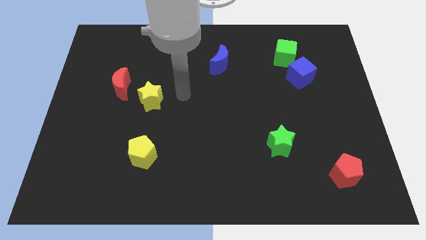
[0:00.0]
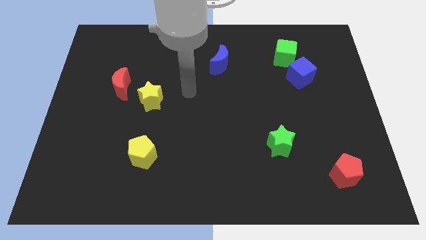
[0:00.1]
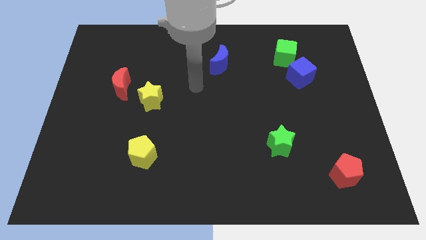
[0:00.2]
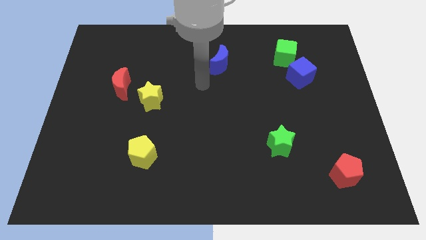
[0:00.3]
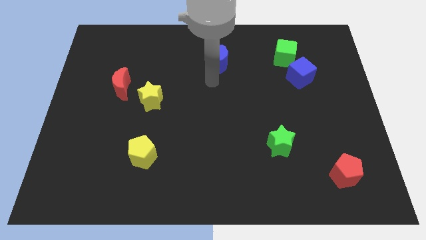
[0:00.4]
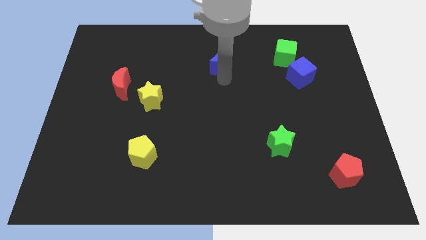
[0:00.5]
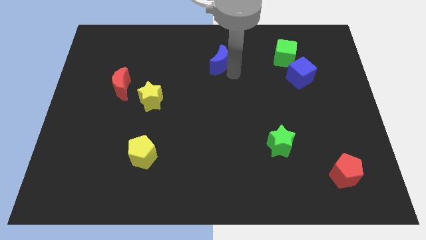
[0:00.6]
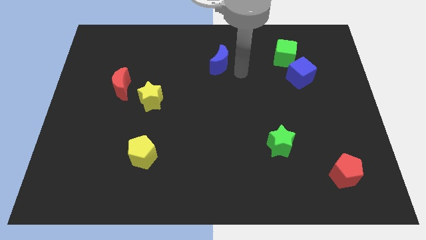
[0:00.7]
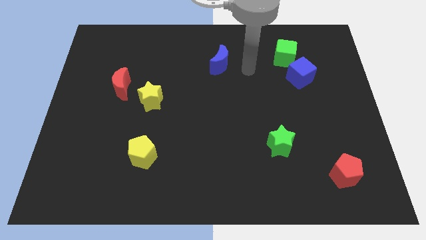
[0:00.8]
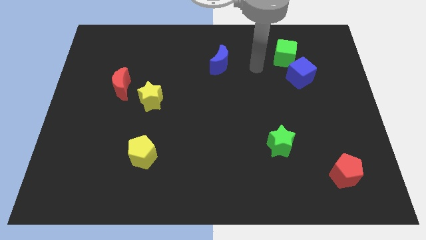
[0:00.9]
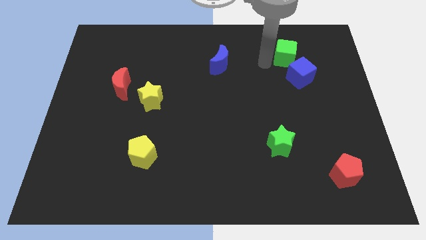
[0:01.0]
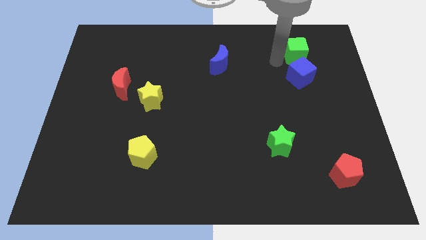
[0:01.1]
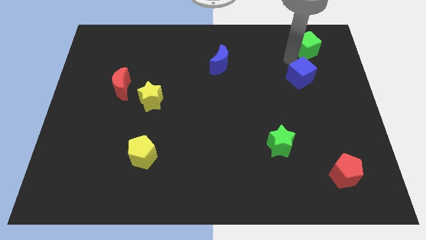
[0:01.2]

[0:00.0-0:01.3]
separate the blue cube from the green cube

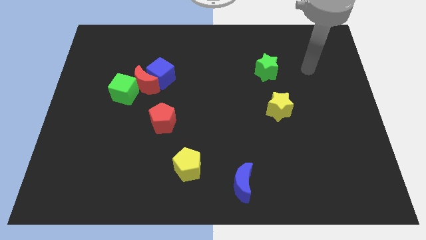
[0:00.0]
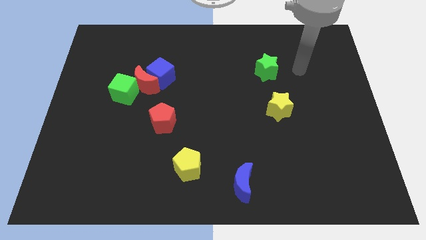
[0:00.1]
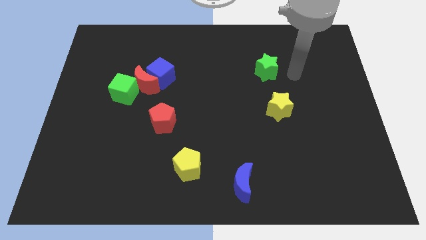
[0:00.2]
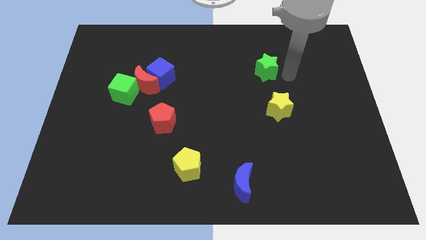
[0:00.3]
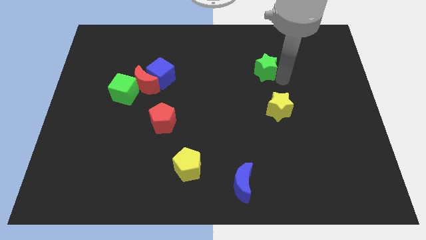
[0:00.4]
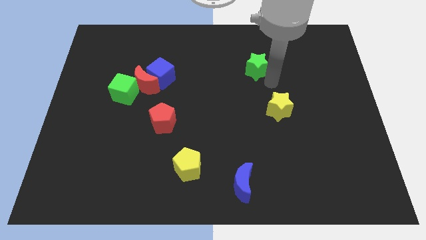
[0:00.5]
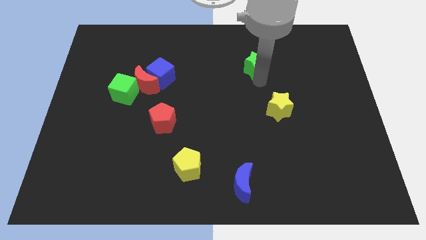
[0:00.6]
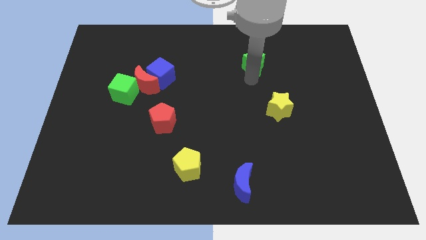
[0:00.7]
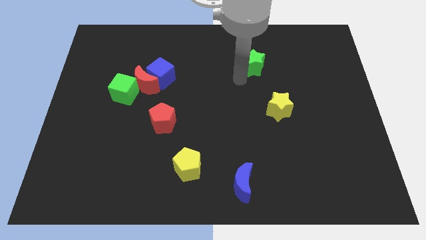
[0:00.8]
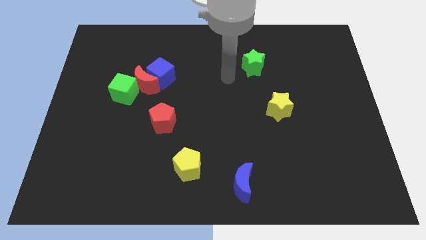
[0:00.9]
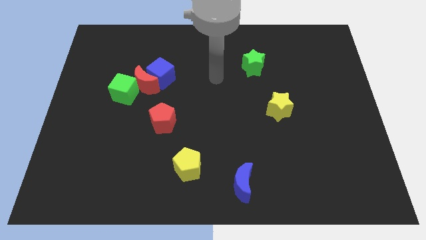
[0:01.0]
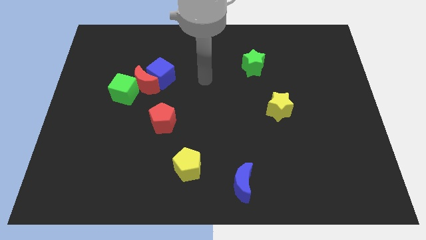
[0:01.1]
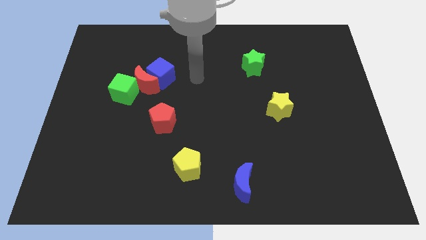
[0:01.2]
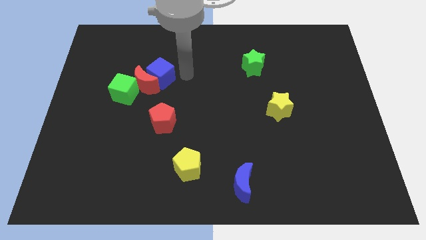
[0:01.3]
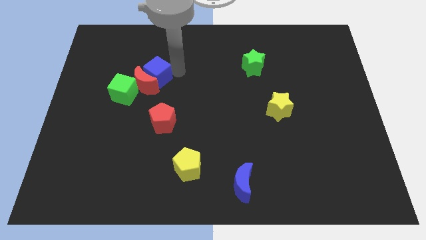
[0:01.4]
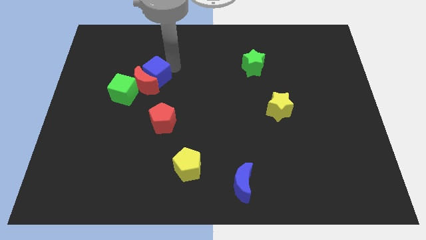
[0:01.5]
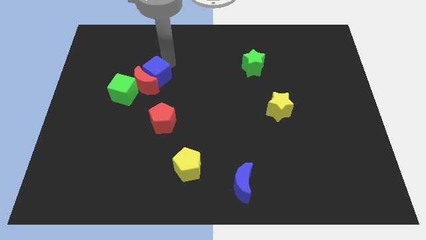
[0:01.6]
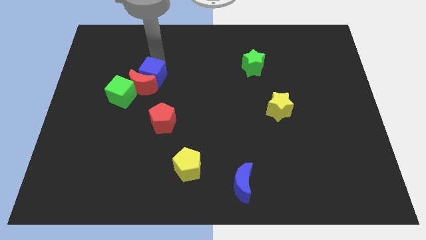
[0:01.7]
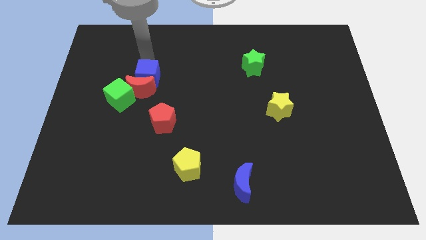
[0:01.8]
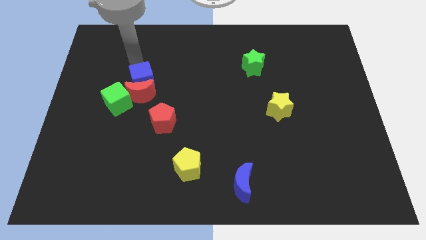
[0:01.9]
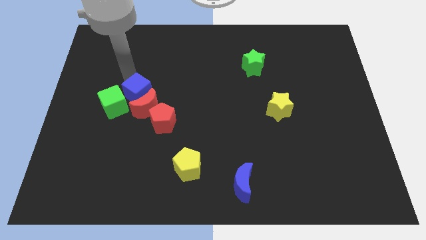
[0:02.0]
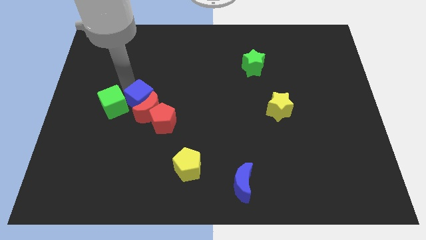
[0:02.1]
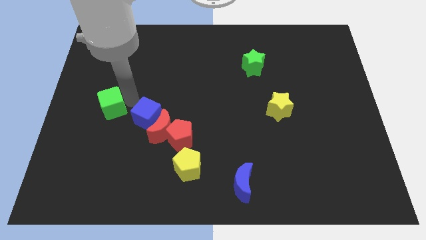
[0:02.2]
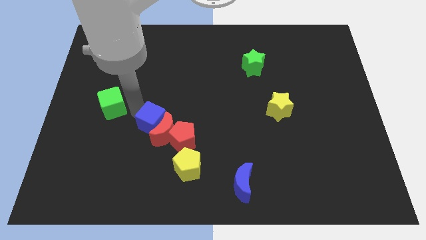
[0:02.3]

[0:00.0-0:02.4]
pull the red moon apart from the blue cube and green cube

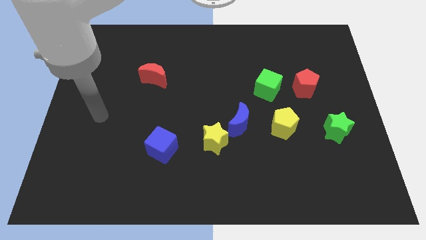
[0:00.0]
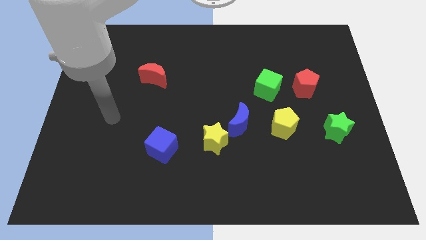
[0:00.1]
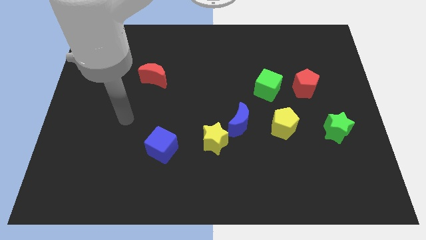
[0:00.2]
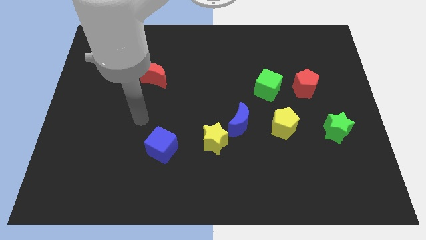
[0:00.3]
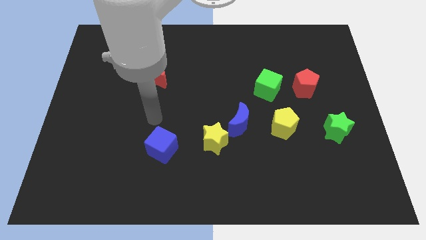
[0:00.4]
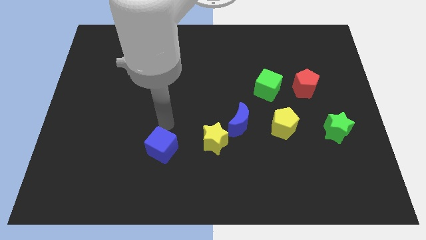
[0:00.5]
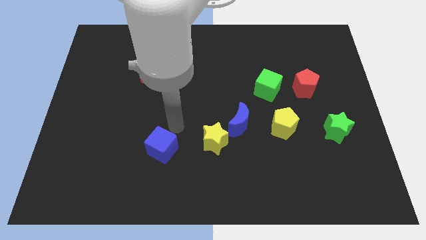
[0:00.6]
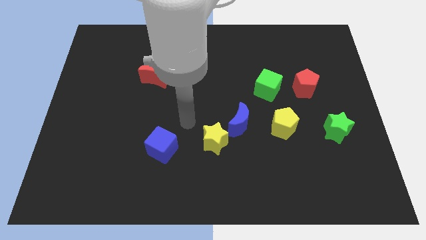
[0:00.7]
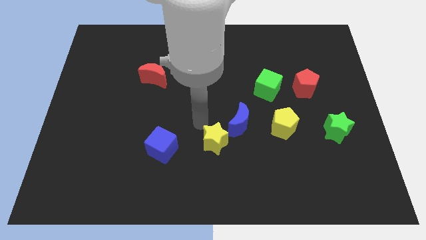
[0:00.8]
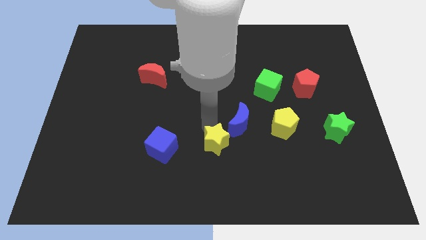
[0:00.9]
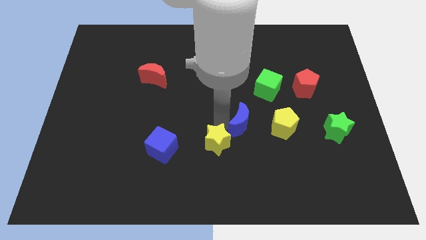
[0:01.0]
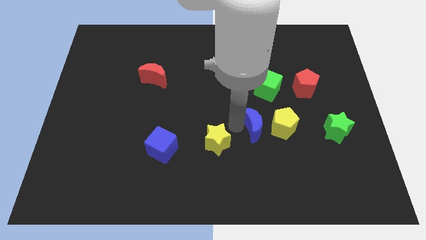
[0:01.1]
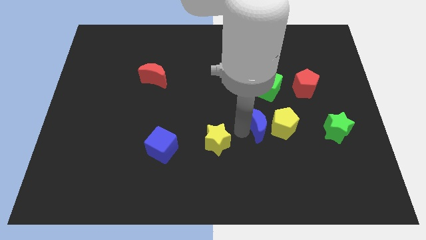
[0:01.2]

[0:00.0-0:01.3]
pull the yellow star apart from the blue moon

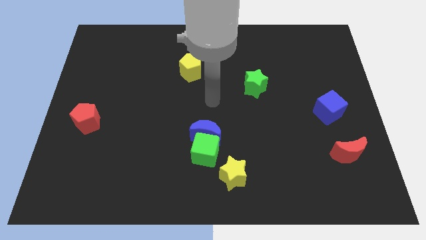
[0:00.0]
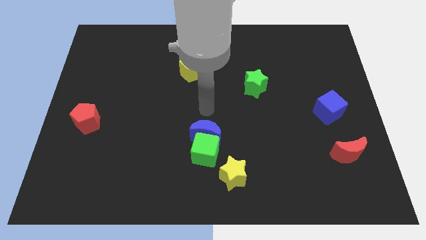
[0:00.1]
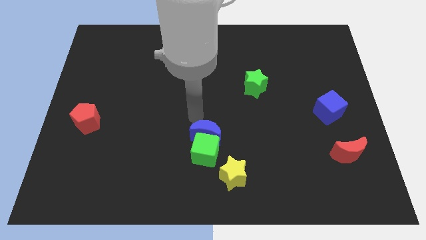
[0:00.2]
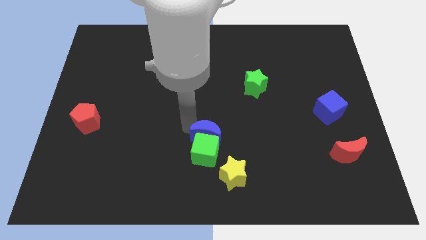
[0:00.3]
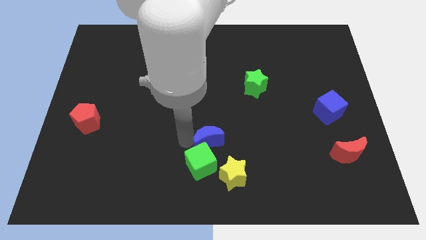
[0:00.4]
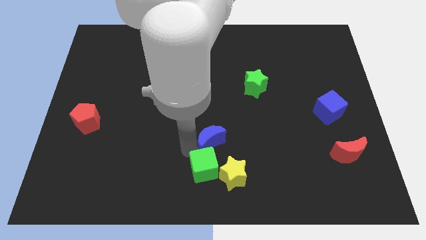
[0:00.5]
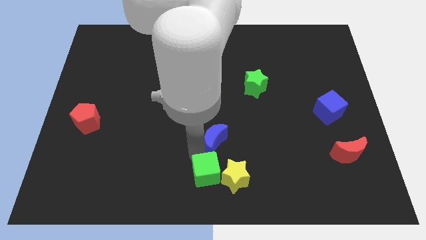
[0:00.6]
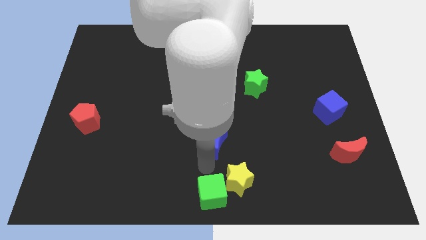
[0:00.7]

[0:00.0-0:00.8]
separate the blue moon from the green cube

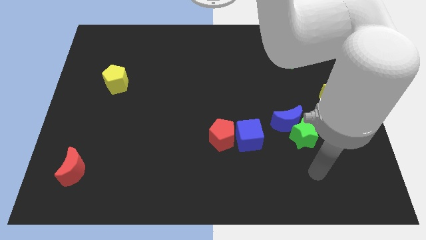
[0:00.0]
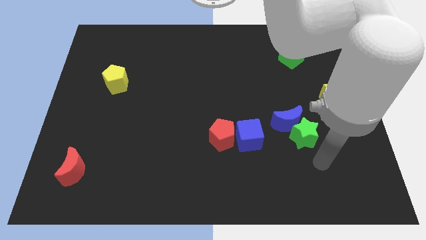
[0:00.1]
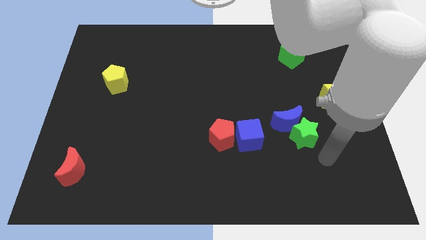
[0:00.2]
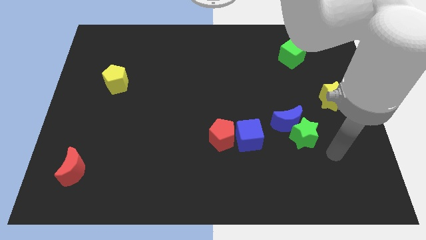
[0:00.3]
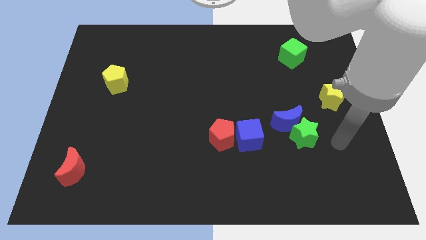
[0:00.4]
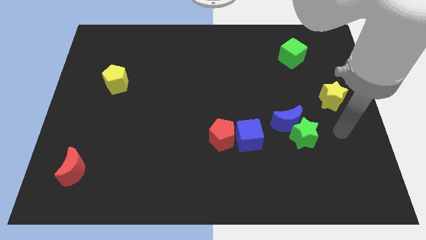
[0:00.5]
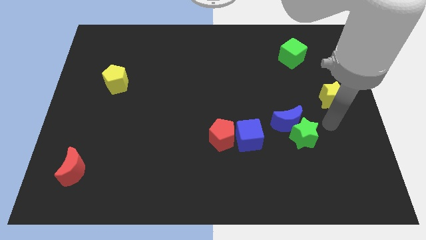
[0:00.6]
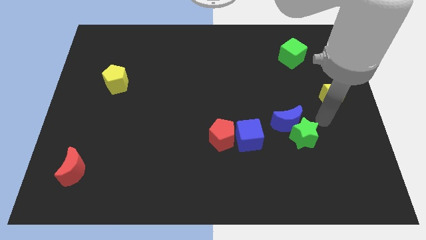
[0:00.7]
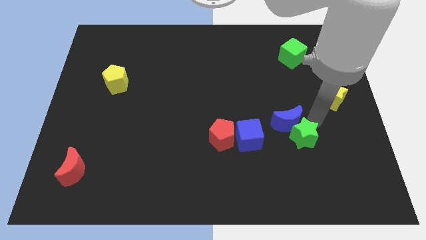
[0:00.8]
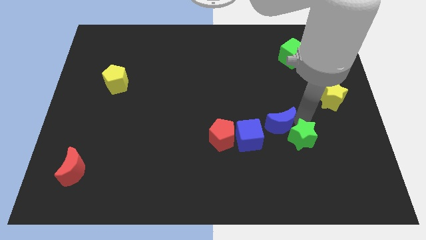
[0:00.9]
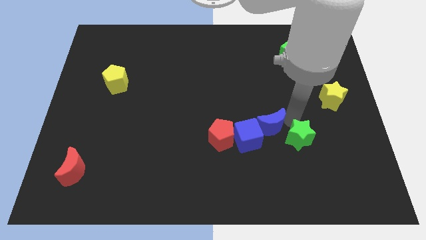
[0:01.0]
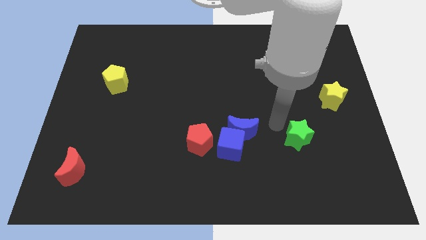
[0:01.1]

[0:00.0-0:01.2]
separate the green star from the blue moon

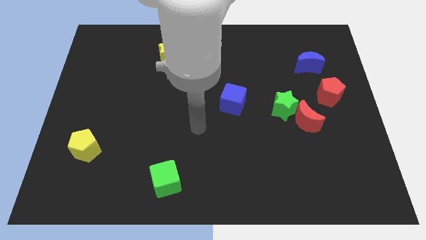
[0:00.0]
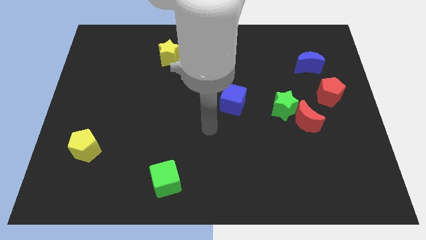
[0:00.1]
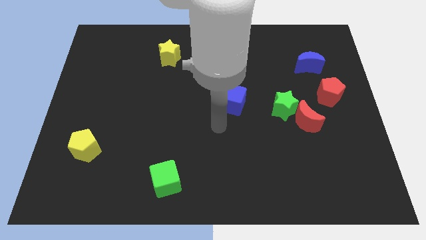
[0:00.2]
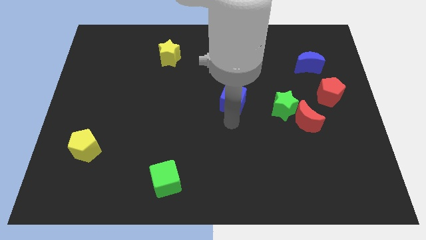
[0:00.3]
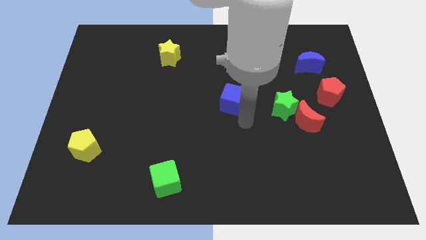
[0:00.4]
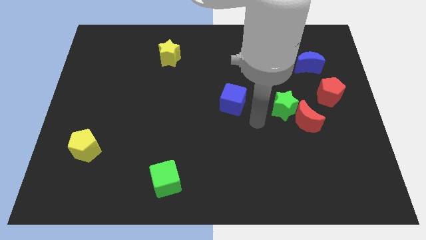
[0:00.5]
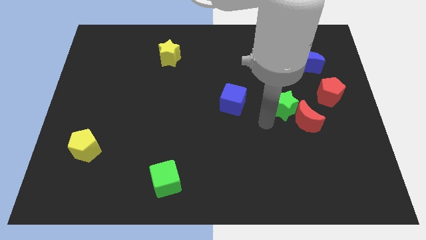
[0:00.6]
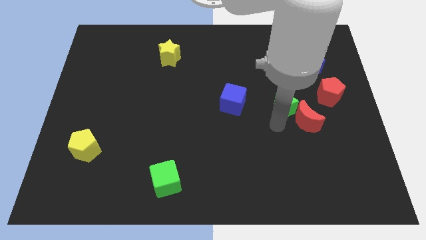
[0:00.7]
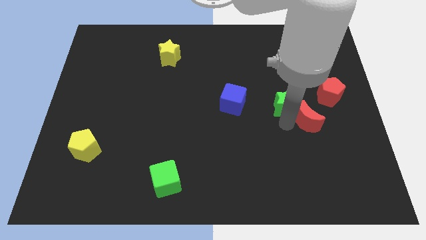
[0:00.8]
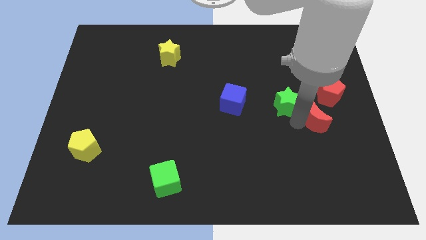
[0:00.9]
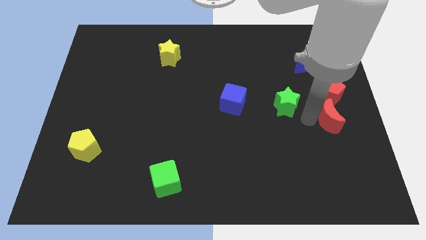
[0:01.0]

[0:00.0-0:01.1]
pull the green star apart from the red moon

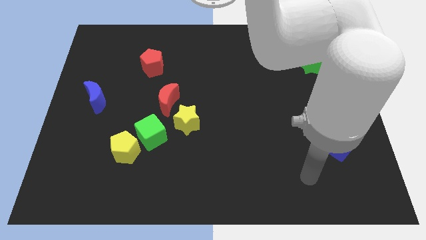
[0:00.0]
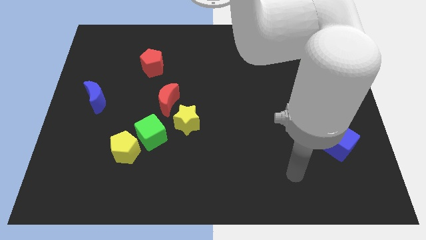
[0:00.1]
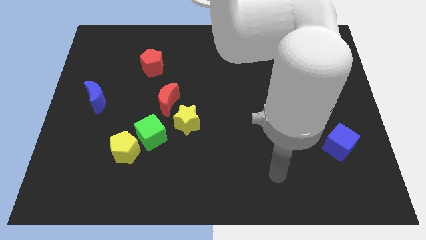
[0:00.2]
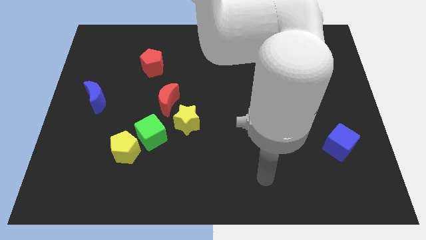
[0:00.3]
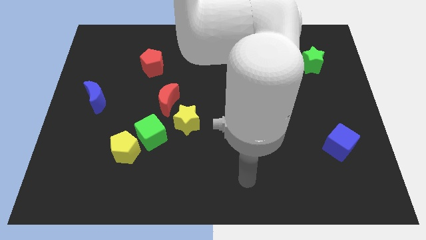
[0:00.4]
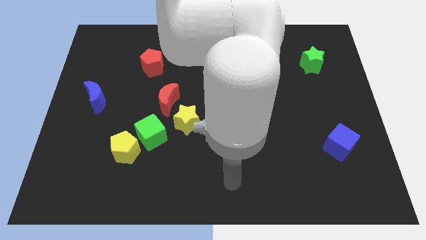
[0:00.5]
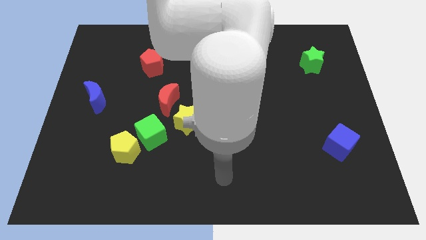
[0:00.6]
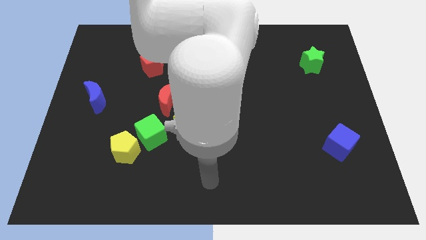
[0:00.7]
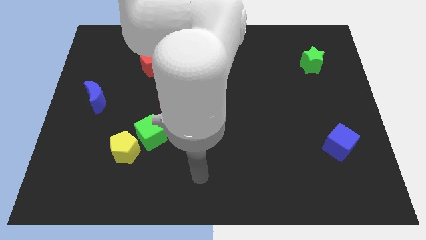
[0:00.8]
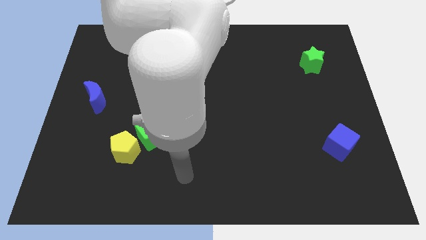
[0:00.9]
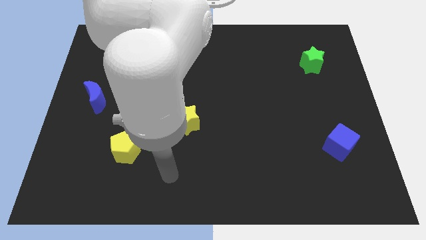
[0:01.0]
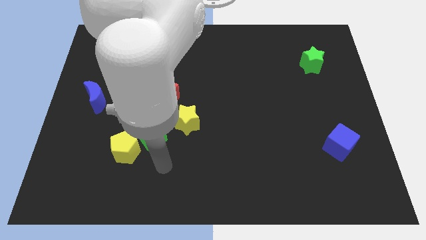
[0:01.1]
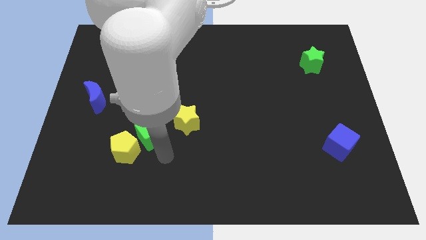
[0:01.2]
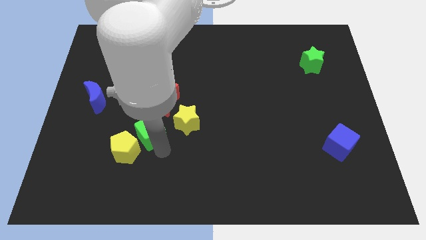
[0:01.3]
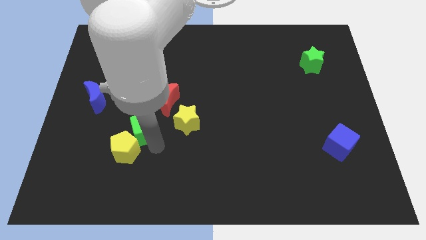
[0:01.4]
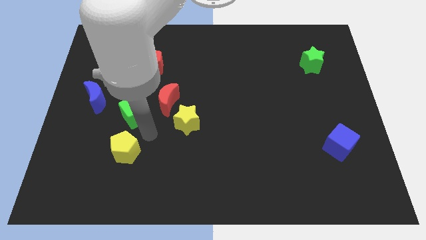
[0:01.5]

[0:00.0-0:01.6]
separate the yellow pentagon from the green cube
